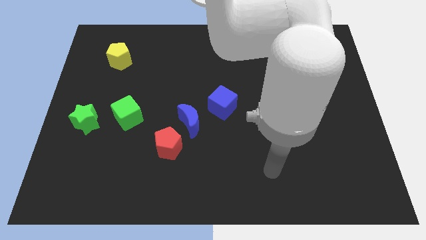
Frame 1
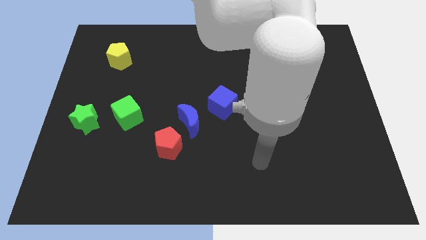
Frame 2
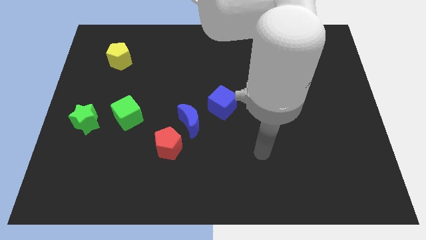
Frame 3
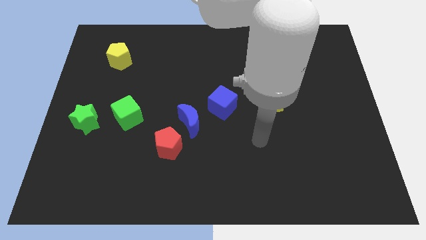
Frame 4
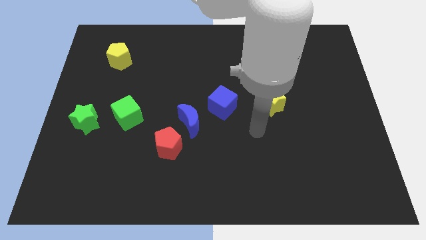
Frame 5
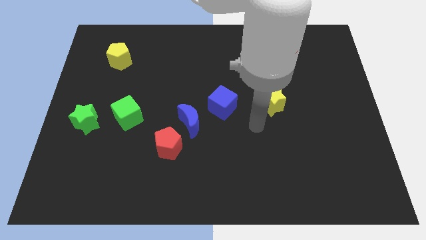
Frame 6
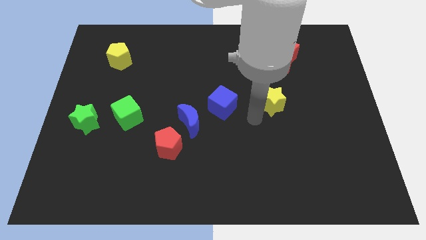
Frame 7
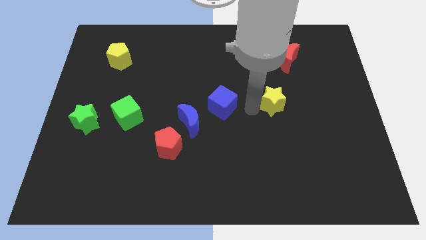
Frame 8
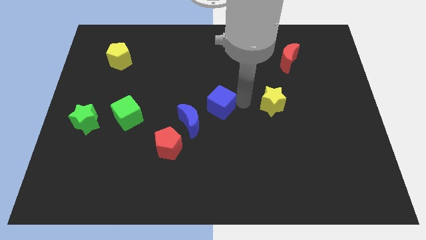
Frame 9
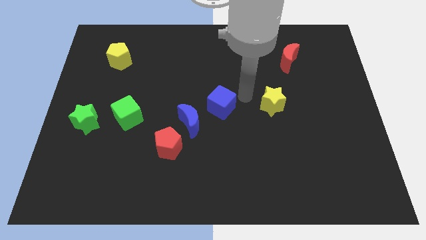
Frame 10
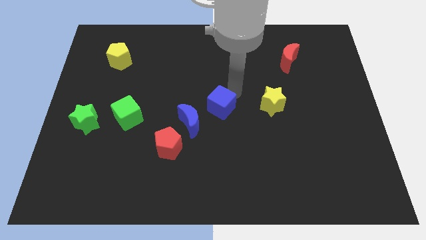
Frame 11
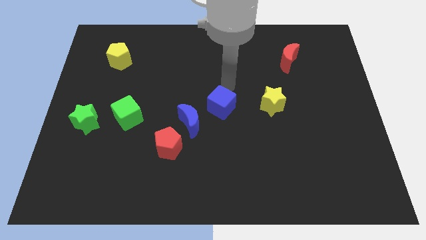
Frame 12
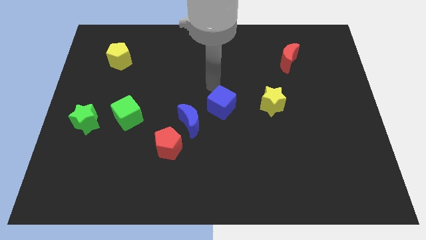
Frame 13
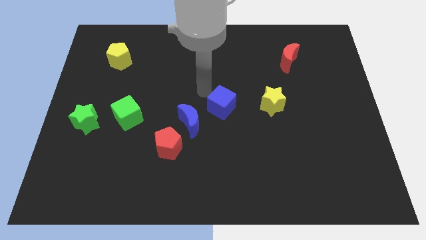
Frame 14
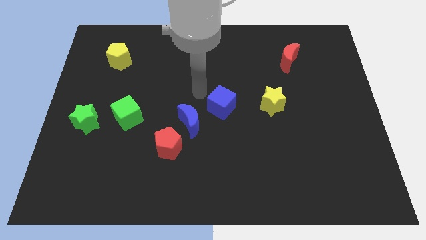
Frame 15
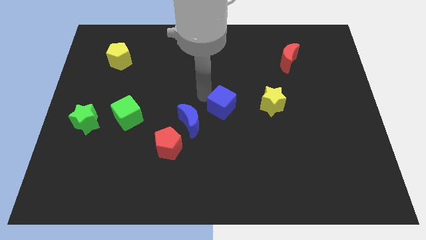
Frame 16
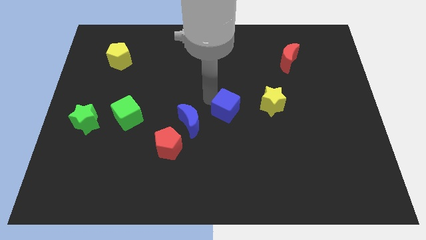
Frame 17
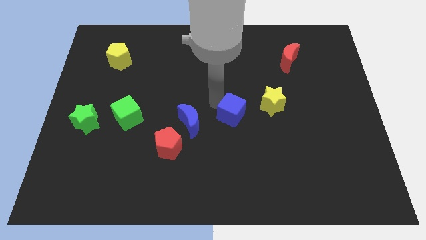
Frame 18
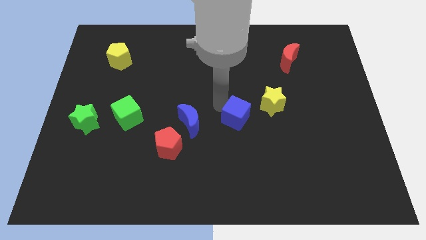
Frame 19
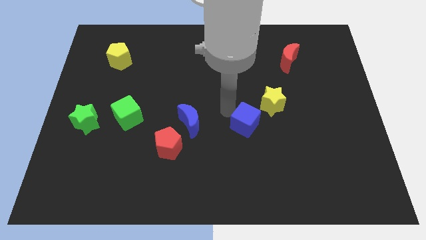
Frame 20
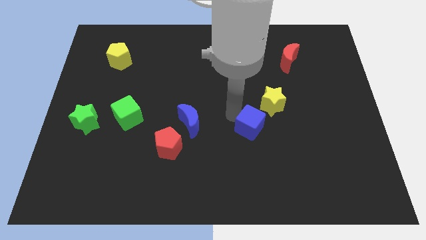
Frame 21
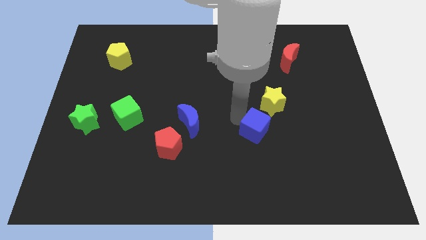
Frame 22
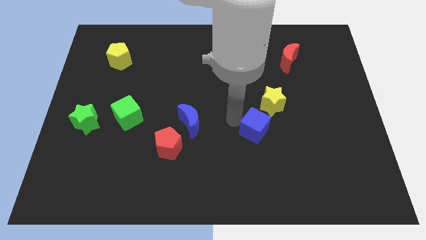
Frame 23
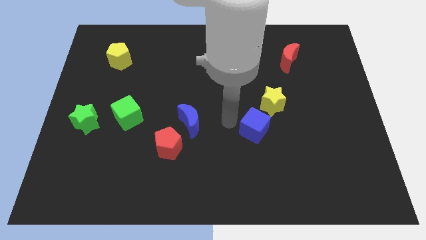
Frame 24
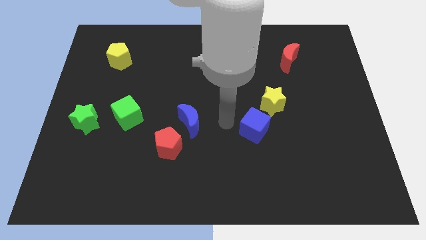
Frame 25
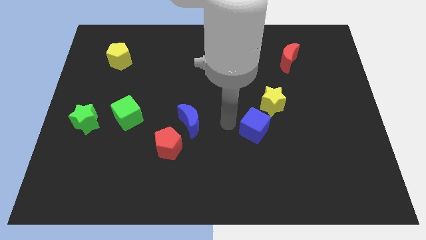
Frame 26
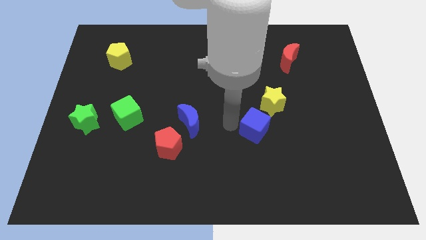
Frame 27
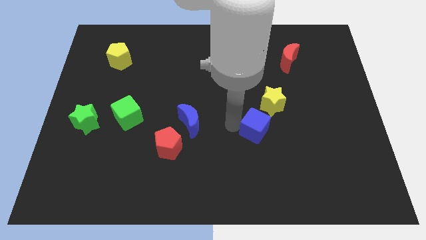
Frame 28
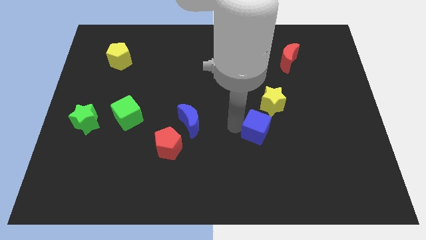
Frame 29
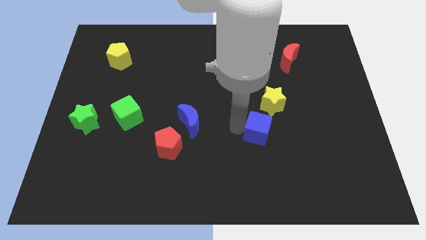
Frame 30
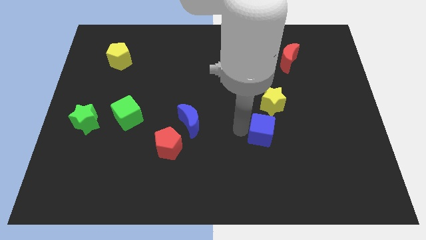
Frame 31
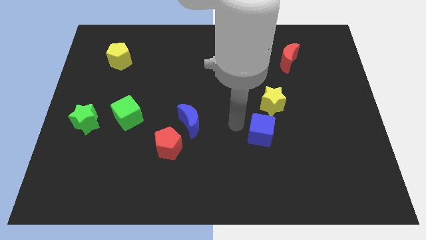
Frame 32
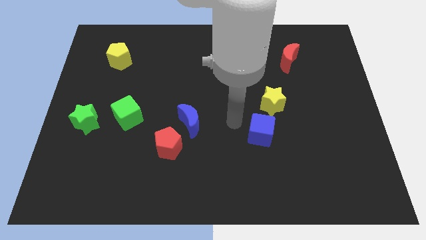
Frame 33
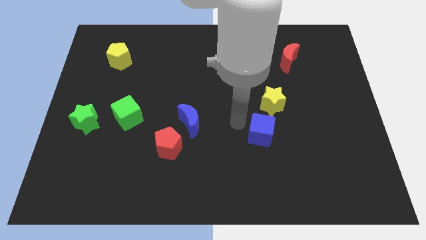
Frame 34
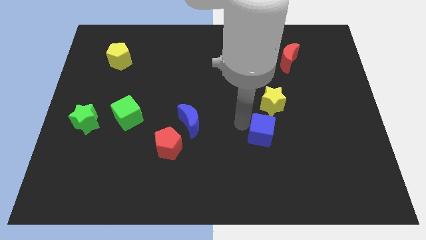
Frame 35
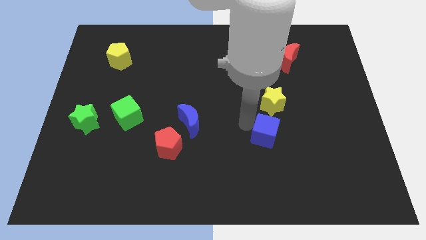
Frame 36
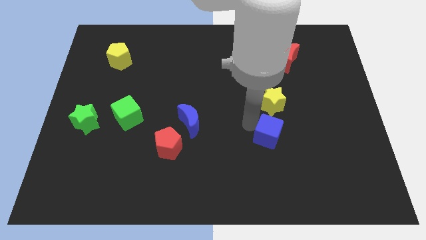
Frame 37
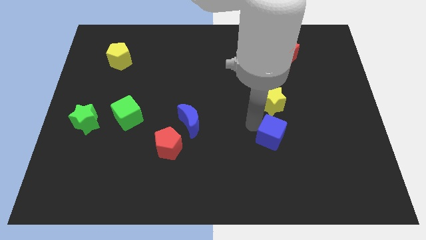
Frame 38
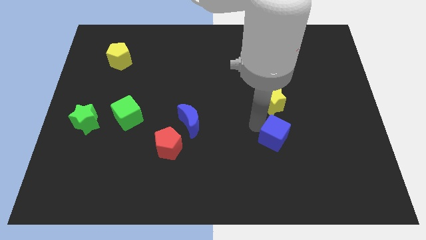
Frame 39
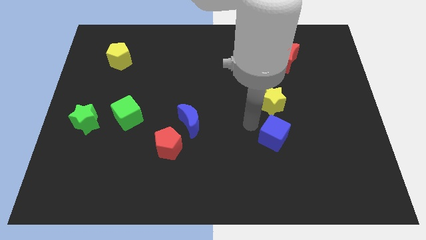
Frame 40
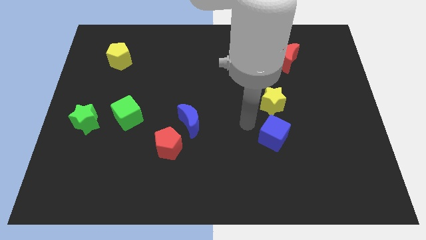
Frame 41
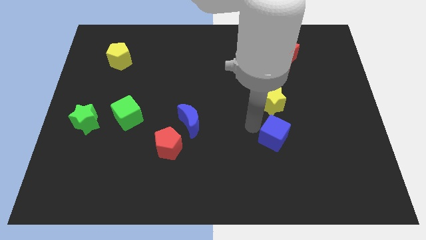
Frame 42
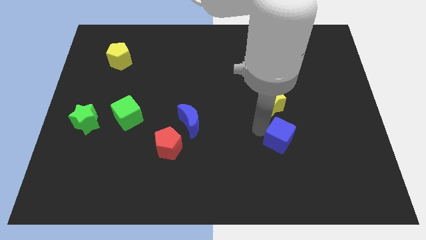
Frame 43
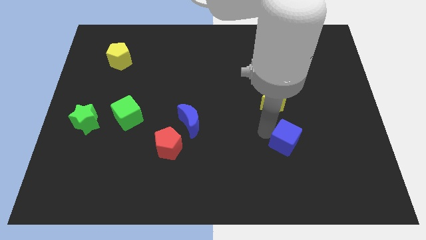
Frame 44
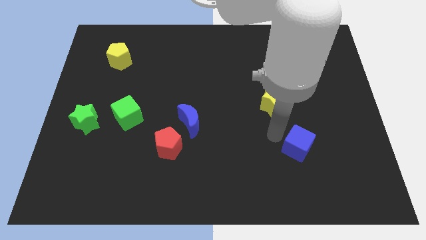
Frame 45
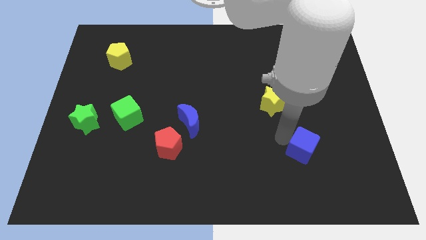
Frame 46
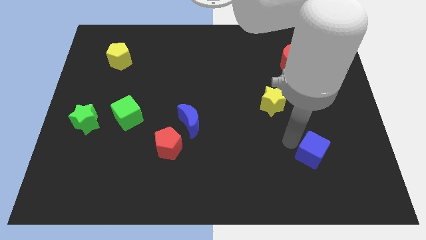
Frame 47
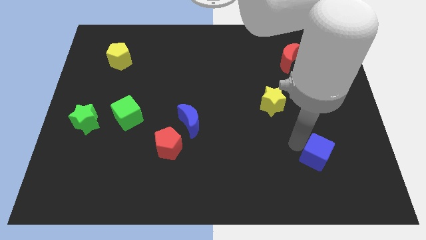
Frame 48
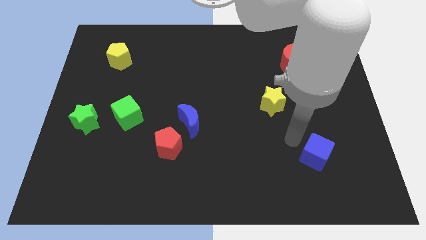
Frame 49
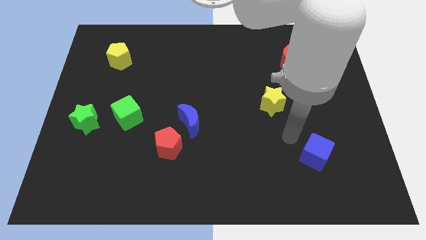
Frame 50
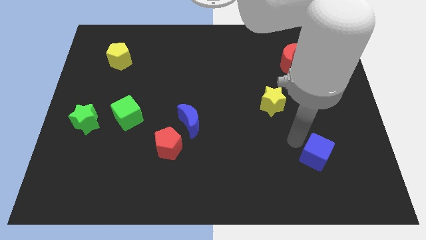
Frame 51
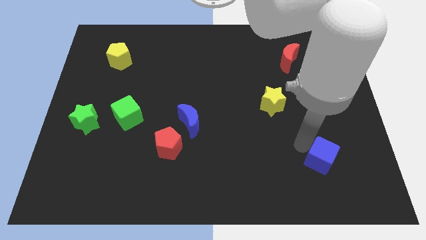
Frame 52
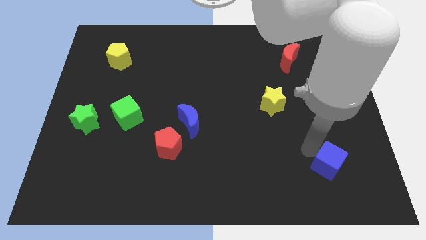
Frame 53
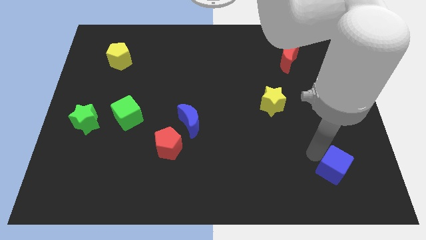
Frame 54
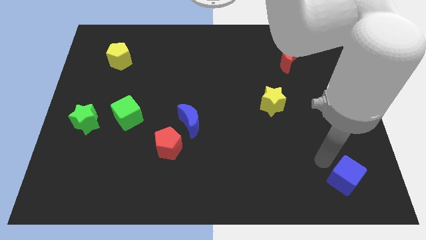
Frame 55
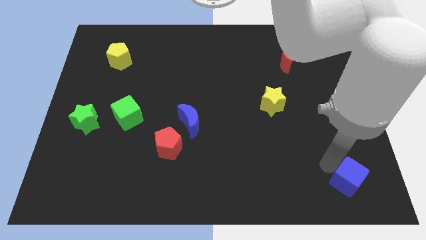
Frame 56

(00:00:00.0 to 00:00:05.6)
move the blue cube to the bottom right of the board

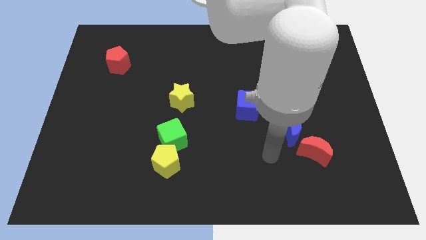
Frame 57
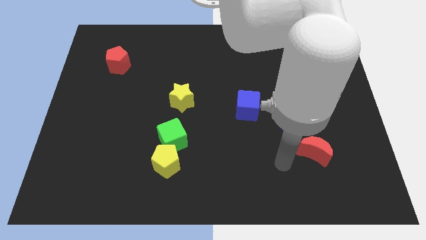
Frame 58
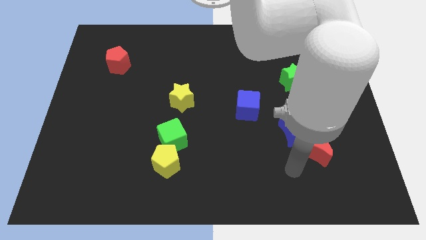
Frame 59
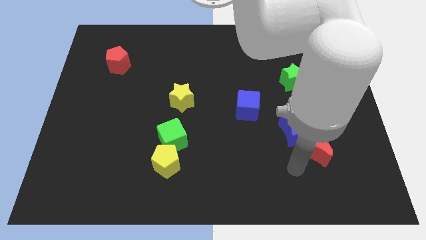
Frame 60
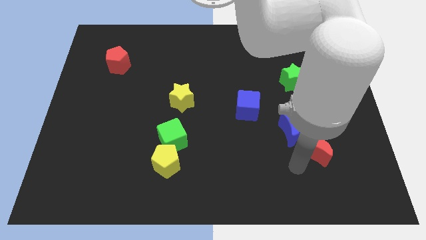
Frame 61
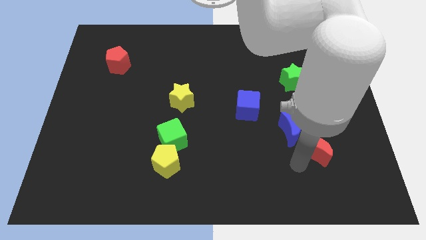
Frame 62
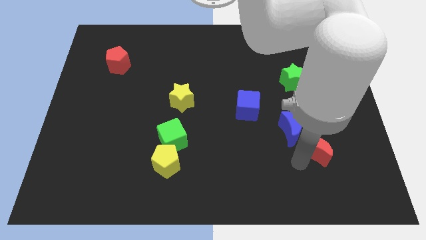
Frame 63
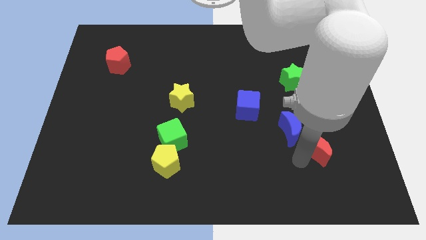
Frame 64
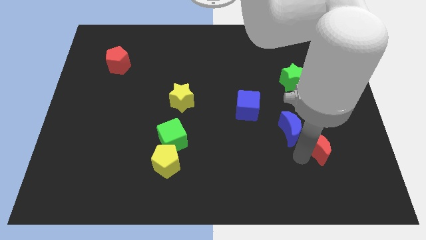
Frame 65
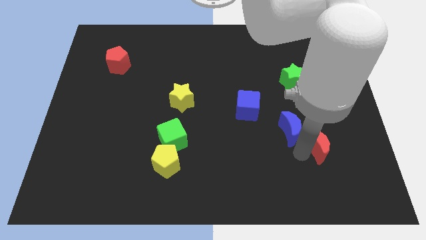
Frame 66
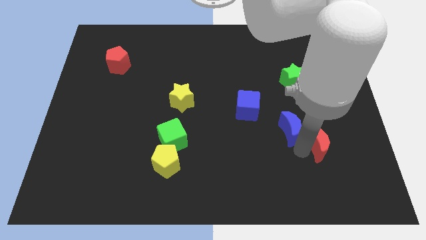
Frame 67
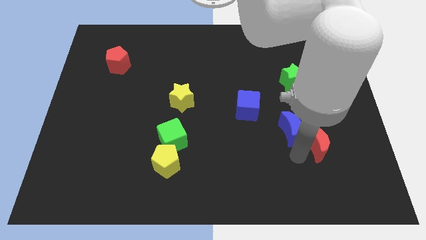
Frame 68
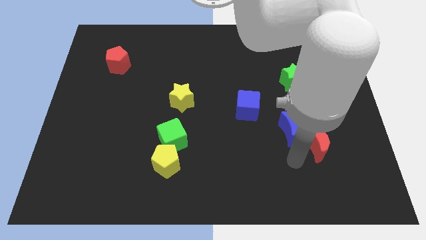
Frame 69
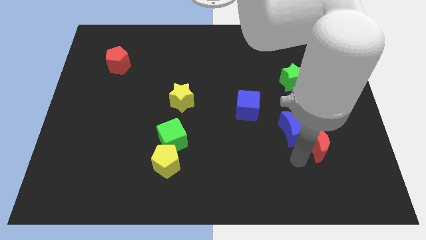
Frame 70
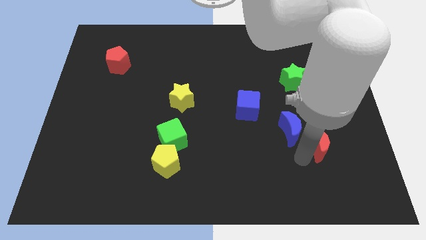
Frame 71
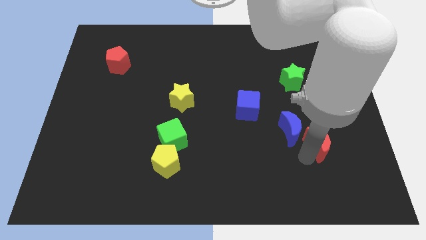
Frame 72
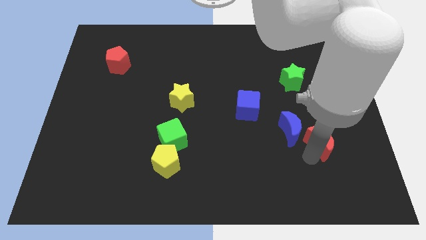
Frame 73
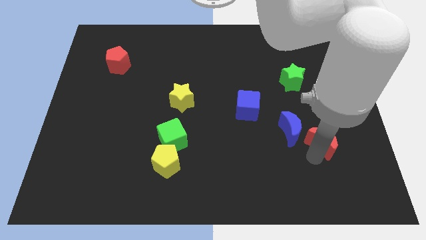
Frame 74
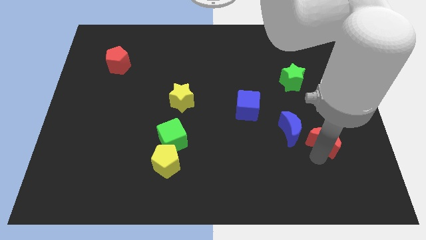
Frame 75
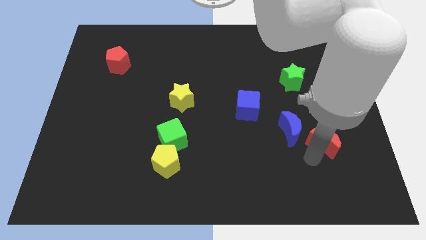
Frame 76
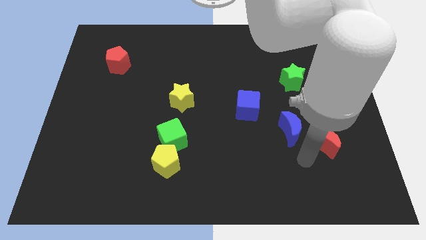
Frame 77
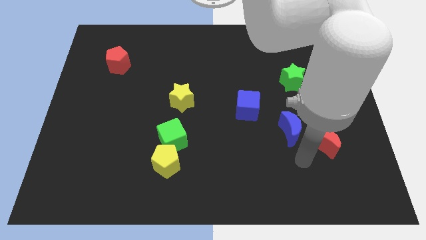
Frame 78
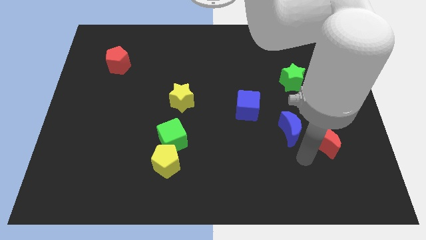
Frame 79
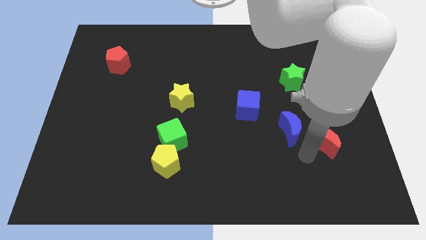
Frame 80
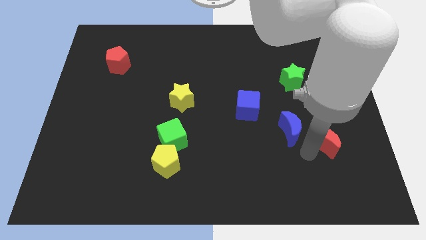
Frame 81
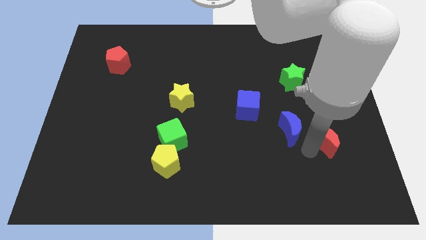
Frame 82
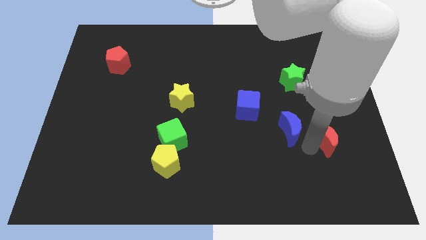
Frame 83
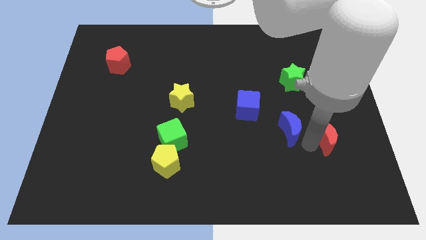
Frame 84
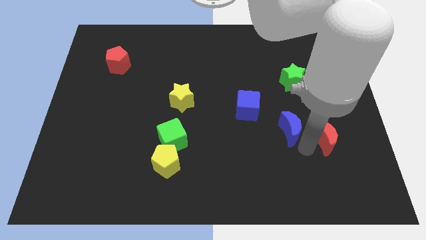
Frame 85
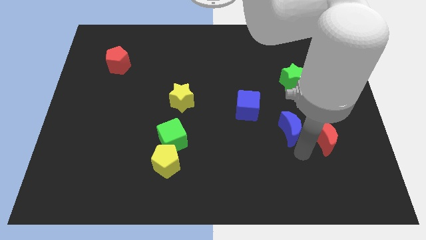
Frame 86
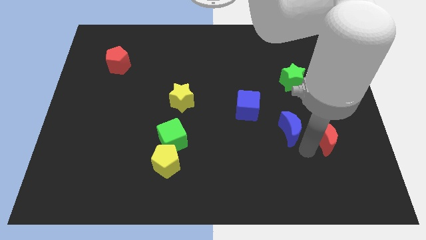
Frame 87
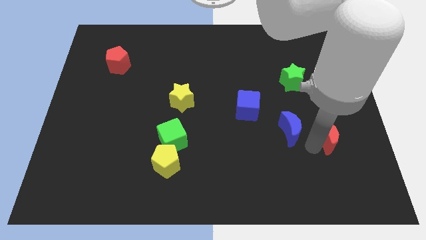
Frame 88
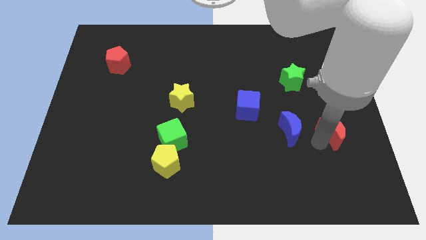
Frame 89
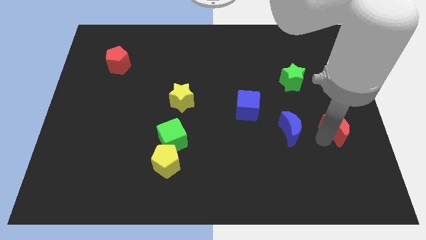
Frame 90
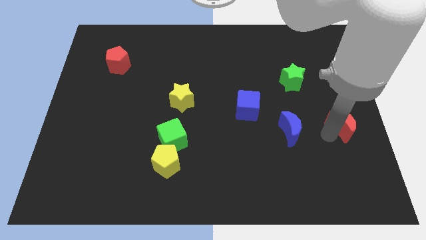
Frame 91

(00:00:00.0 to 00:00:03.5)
move the red moon to the right side of the board
